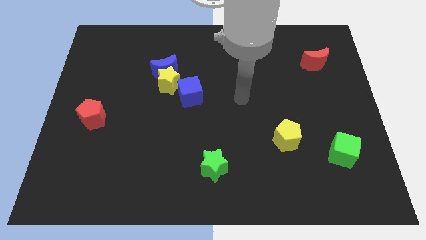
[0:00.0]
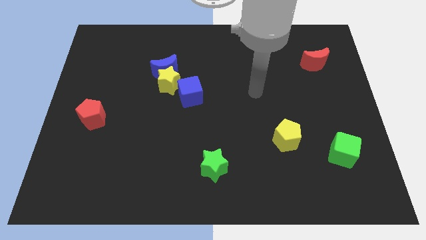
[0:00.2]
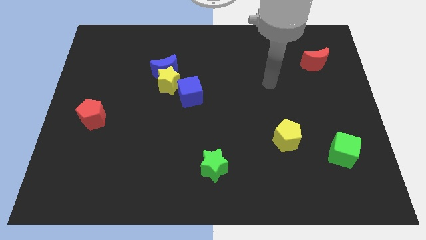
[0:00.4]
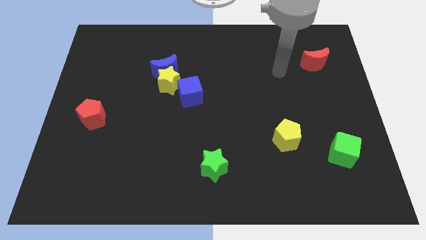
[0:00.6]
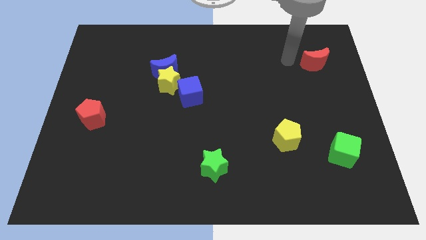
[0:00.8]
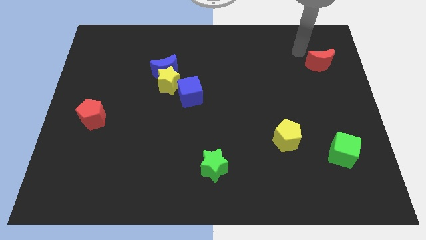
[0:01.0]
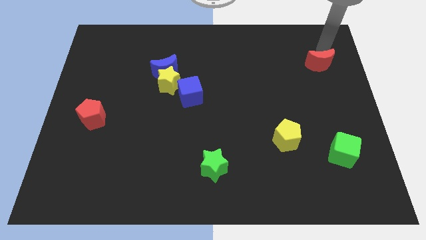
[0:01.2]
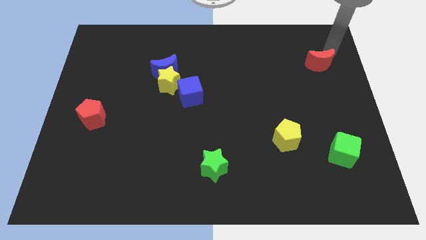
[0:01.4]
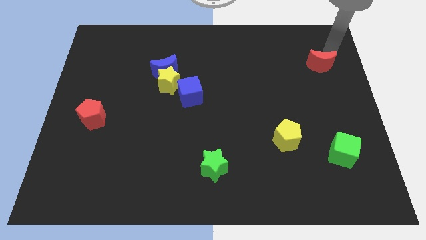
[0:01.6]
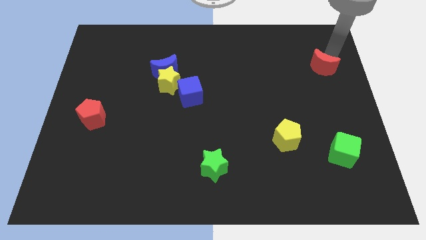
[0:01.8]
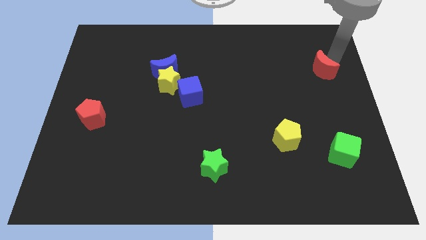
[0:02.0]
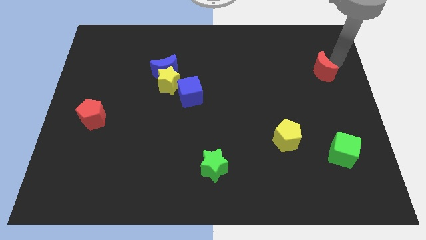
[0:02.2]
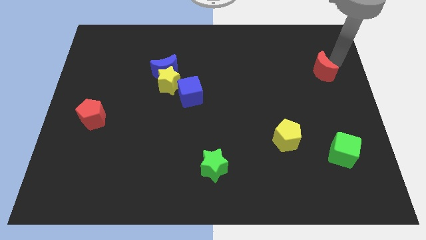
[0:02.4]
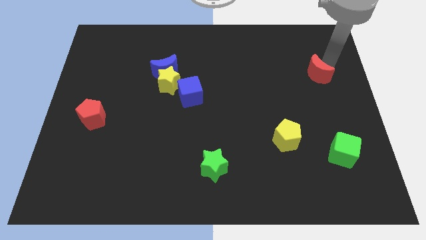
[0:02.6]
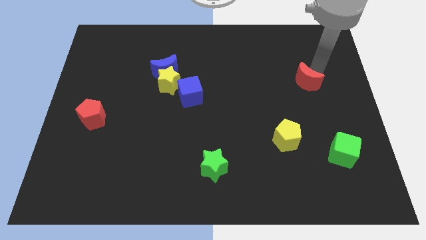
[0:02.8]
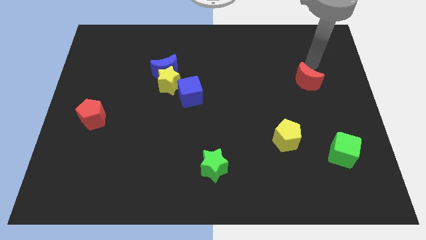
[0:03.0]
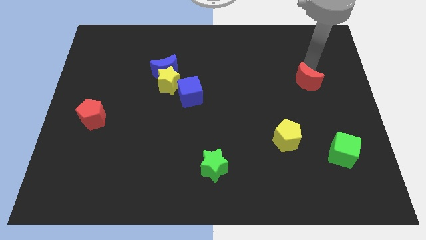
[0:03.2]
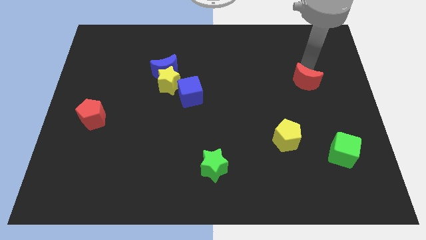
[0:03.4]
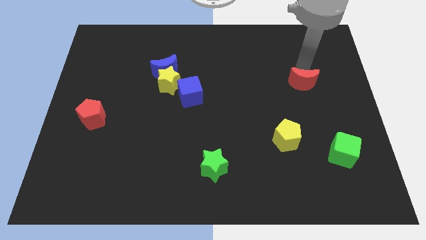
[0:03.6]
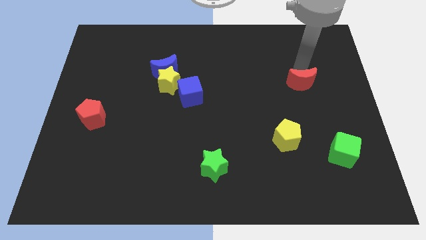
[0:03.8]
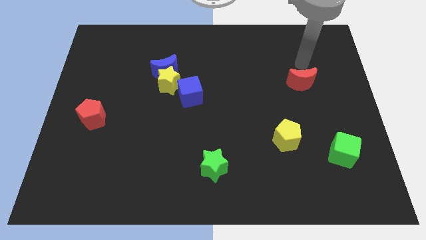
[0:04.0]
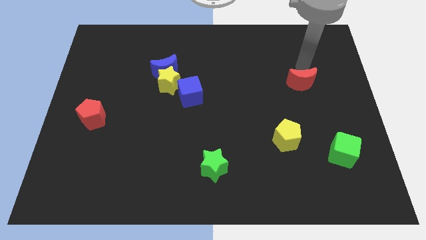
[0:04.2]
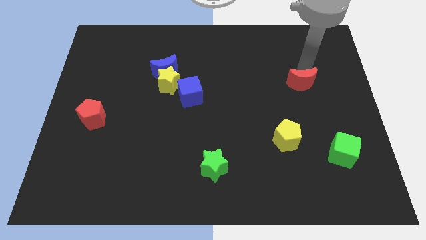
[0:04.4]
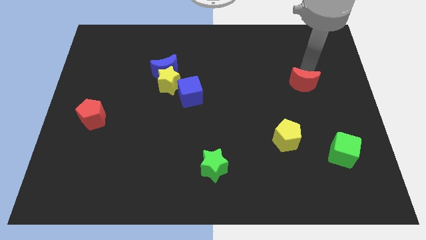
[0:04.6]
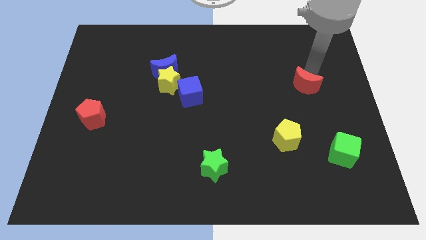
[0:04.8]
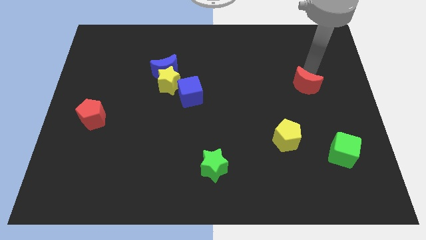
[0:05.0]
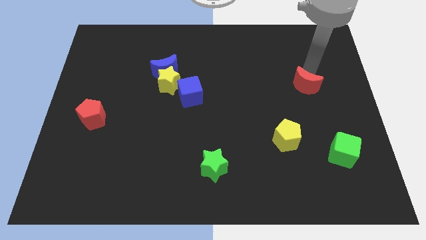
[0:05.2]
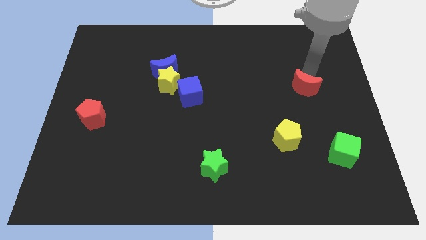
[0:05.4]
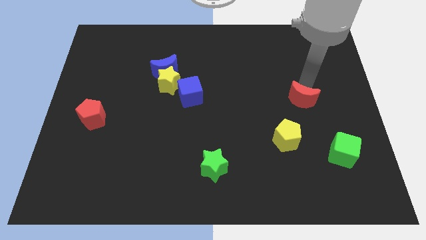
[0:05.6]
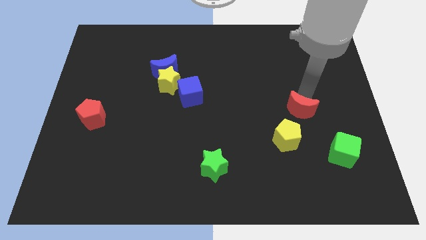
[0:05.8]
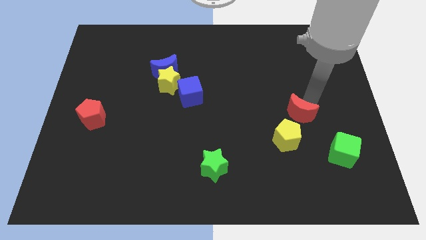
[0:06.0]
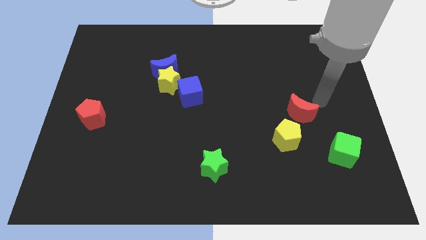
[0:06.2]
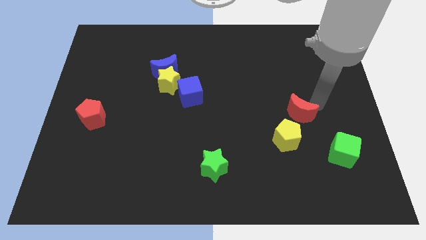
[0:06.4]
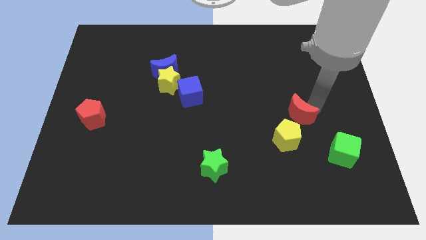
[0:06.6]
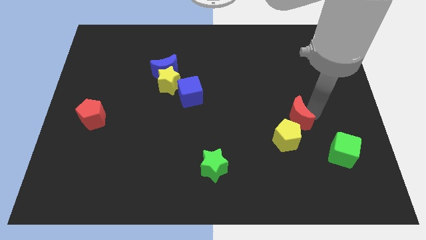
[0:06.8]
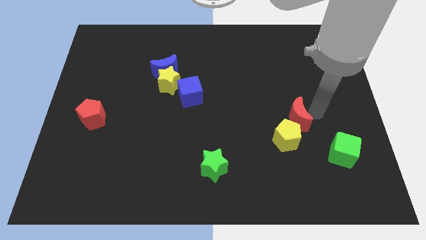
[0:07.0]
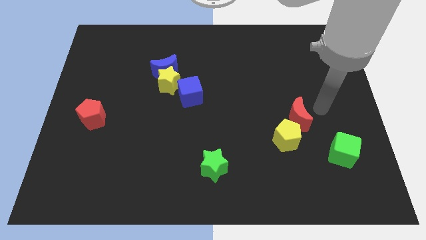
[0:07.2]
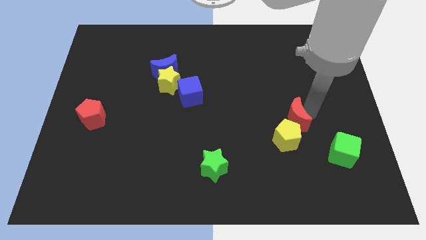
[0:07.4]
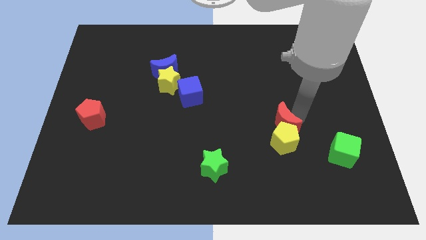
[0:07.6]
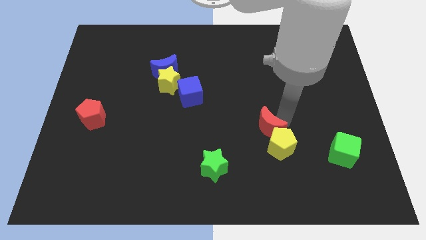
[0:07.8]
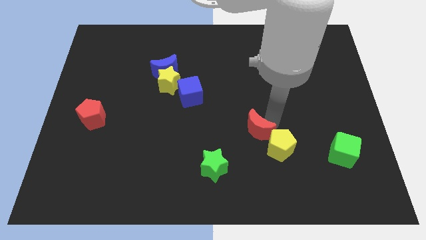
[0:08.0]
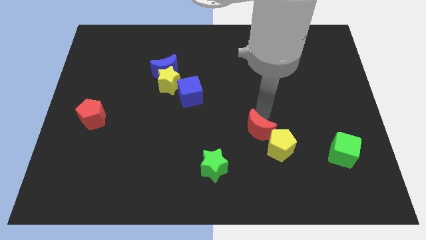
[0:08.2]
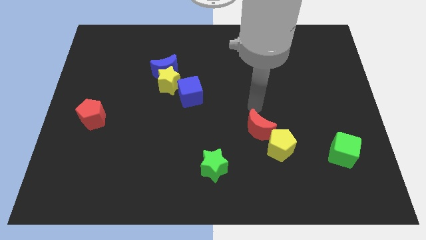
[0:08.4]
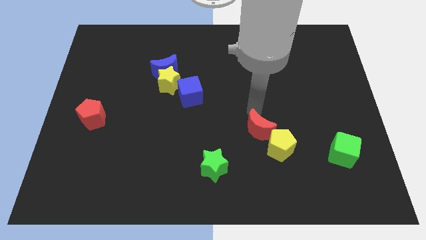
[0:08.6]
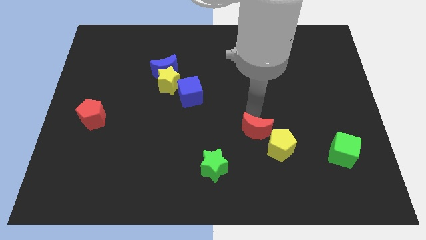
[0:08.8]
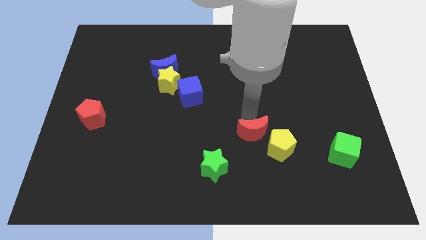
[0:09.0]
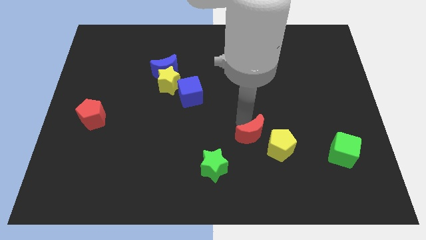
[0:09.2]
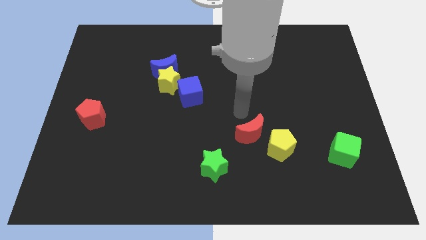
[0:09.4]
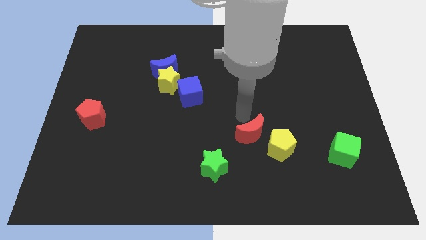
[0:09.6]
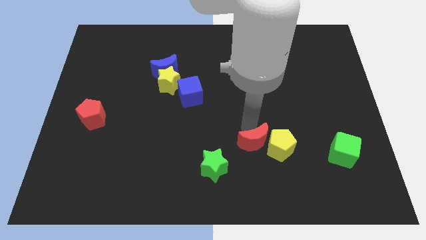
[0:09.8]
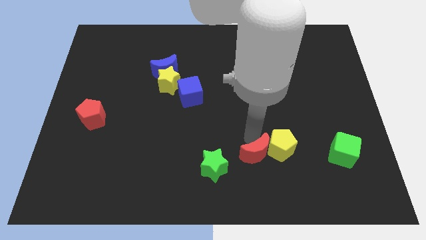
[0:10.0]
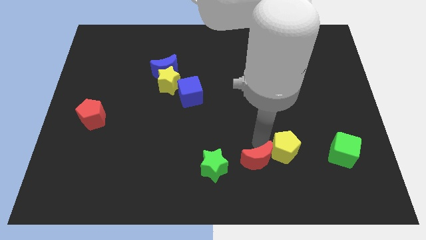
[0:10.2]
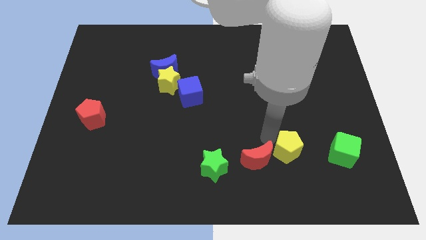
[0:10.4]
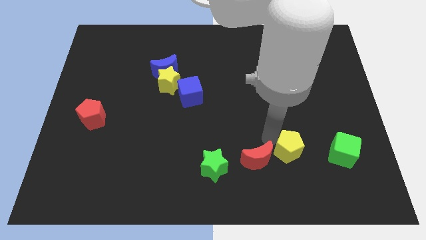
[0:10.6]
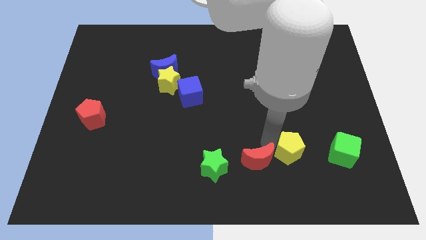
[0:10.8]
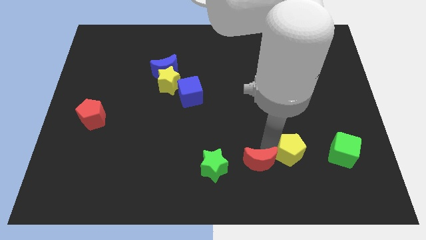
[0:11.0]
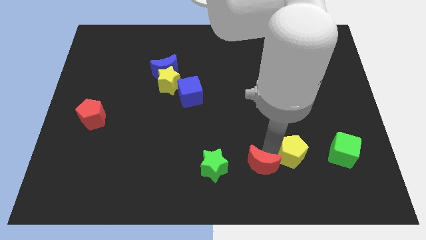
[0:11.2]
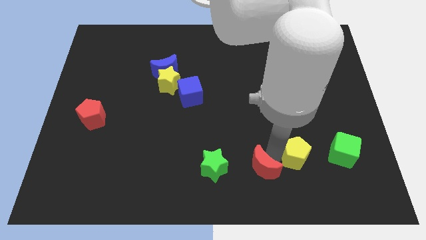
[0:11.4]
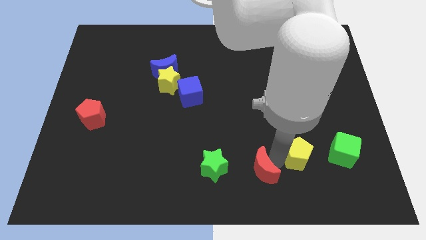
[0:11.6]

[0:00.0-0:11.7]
push the red moon to the bottom

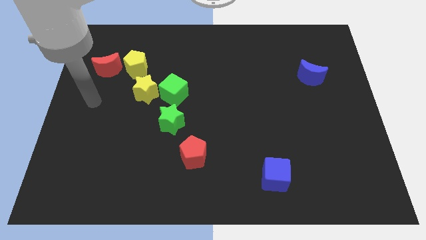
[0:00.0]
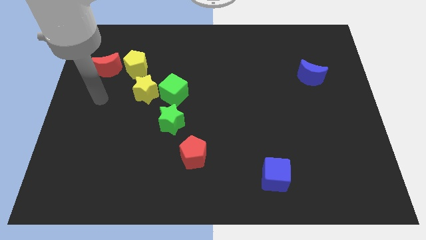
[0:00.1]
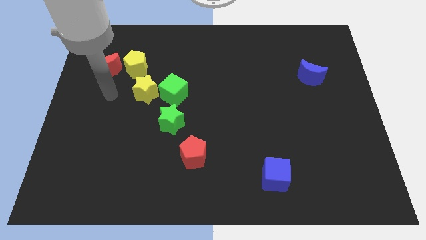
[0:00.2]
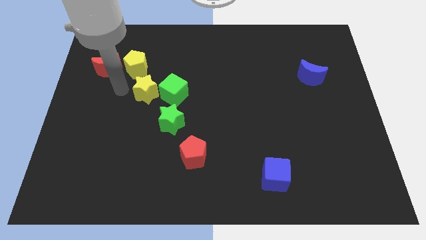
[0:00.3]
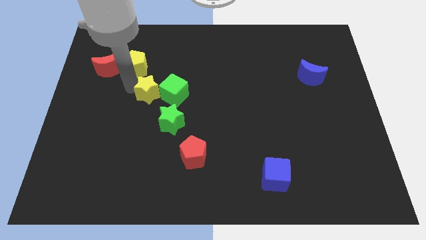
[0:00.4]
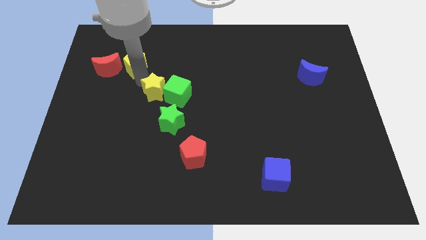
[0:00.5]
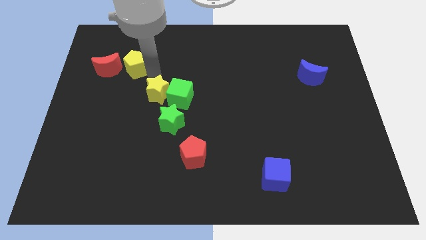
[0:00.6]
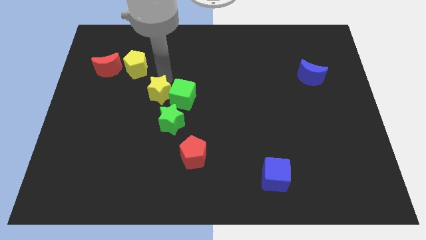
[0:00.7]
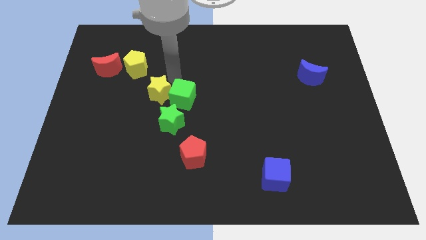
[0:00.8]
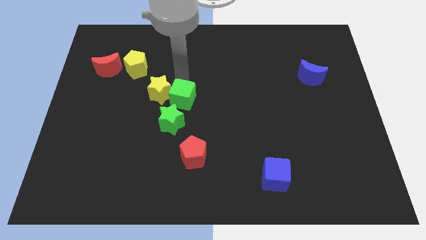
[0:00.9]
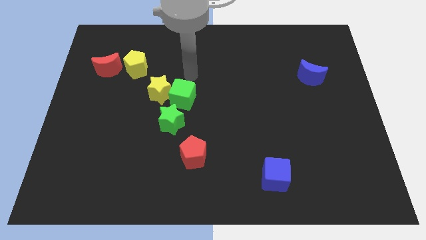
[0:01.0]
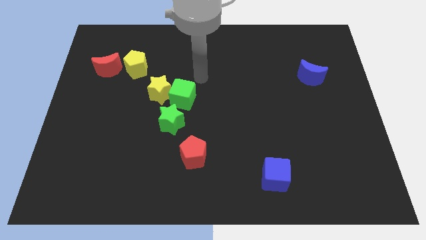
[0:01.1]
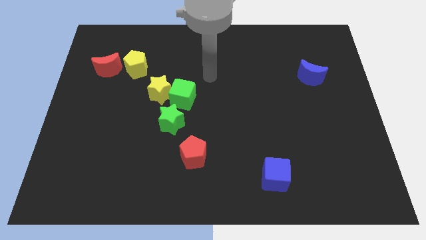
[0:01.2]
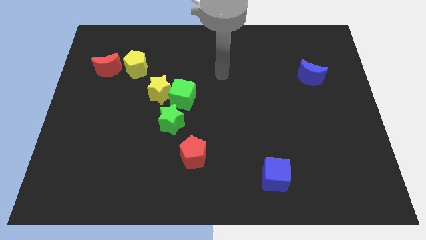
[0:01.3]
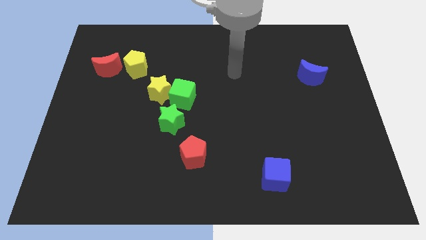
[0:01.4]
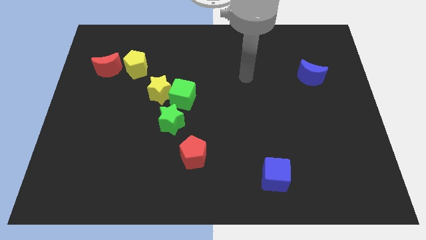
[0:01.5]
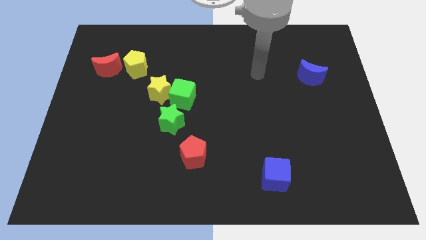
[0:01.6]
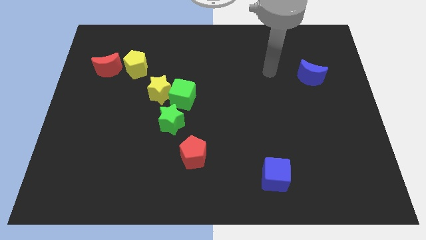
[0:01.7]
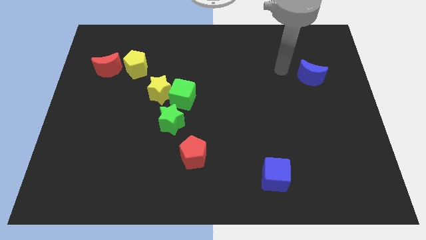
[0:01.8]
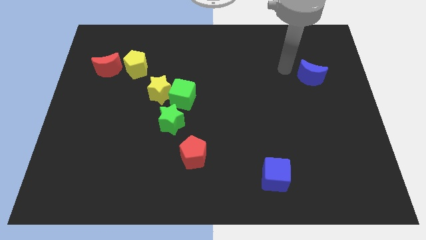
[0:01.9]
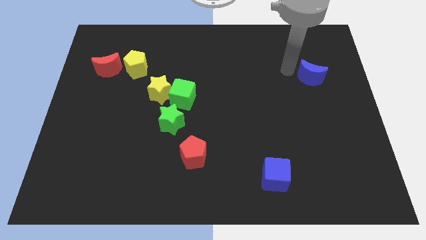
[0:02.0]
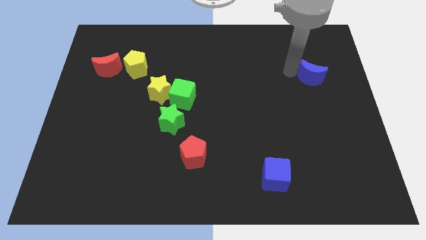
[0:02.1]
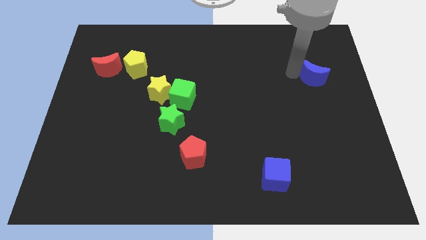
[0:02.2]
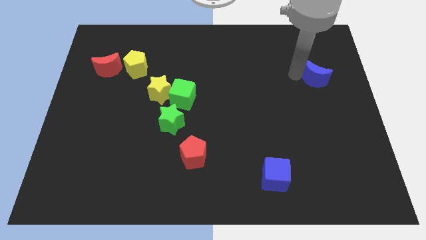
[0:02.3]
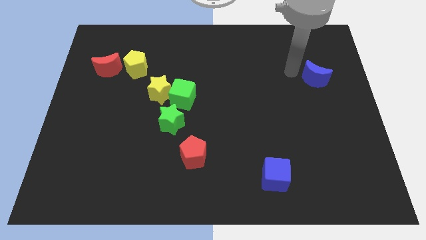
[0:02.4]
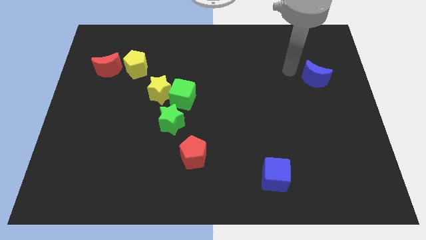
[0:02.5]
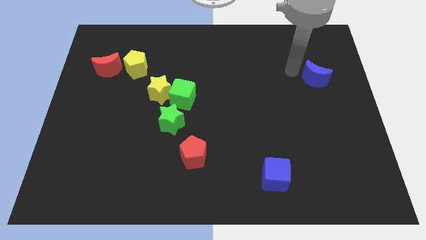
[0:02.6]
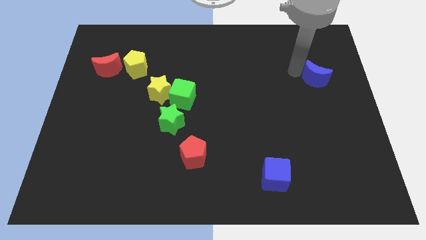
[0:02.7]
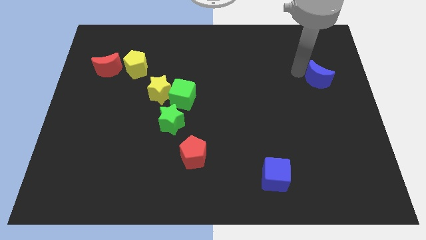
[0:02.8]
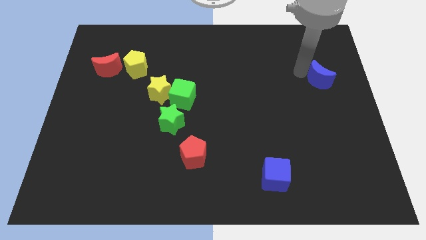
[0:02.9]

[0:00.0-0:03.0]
put the blue moon to the center right
